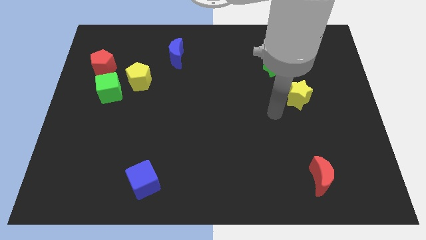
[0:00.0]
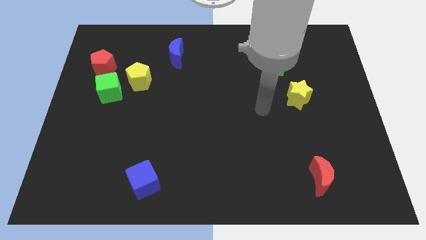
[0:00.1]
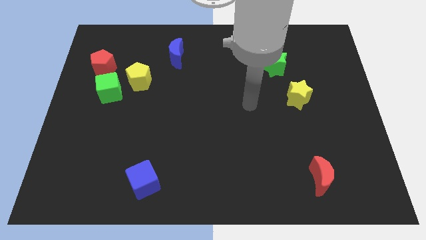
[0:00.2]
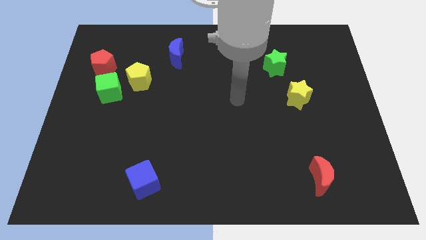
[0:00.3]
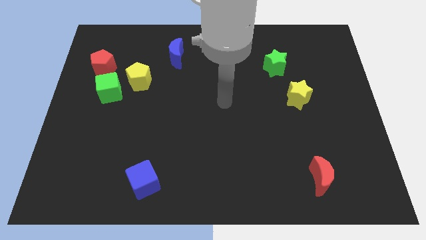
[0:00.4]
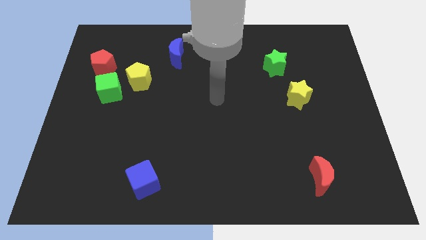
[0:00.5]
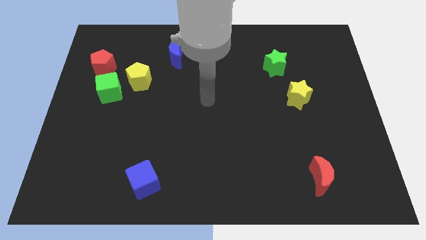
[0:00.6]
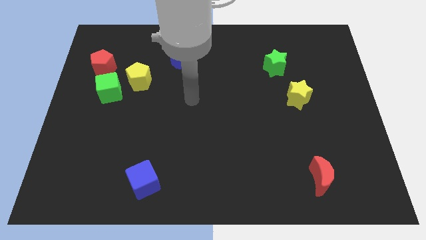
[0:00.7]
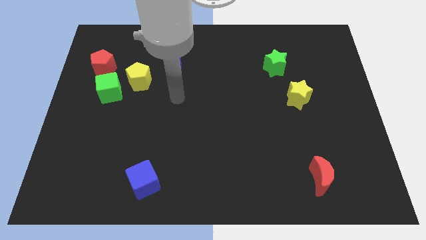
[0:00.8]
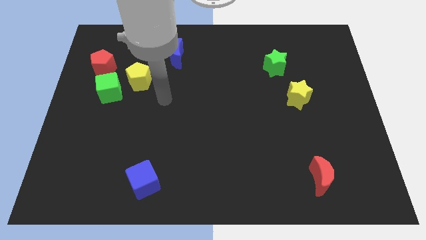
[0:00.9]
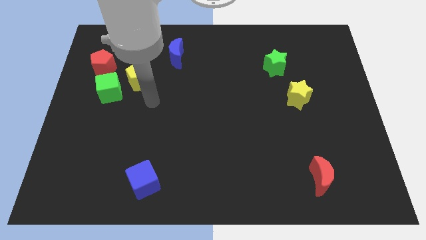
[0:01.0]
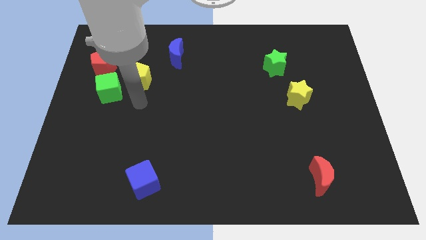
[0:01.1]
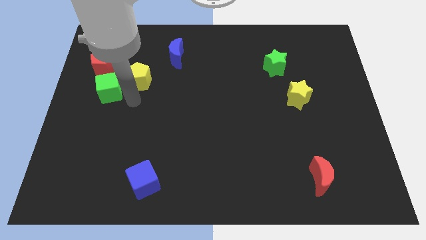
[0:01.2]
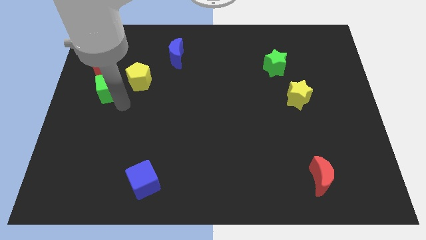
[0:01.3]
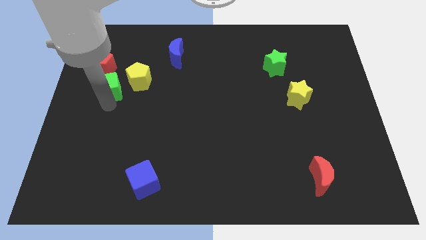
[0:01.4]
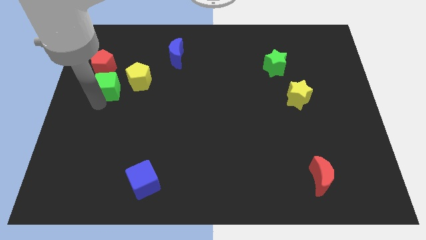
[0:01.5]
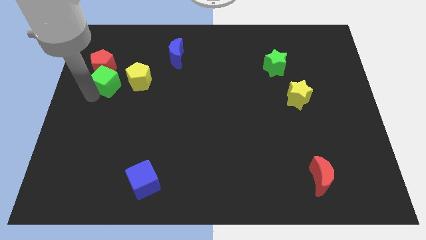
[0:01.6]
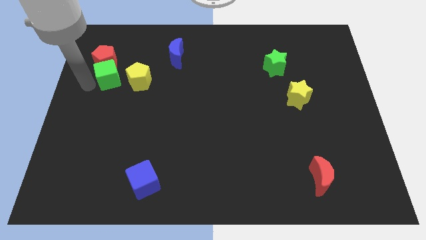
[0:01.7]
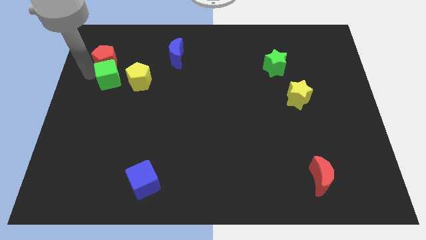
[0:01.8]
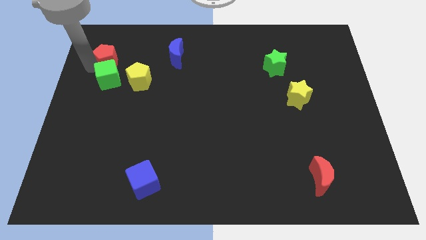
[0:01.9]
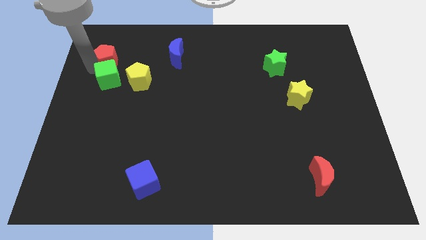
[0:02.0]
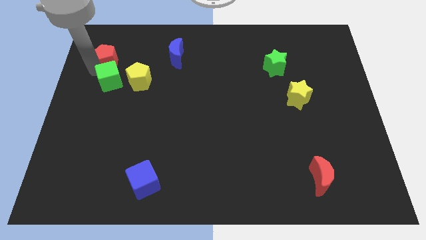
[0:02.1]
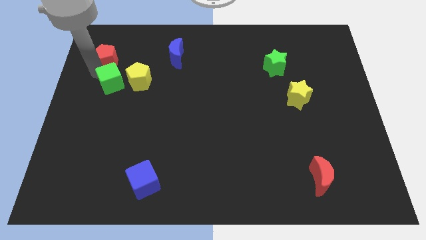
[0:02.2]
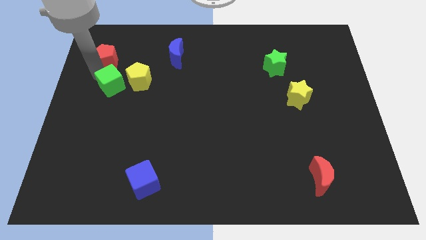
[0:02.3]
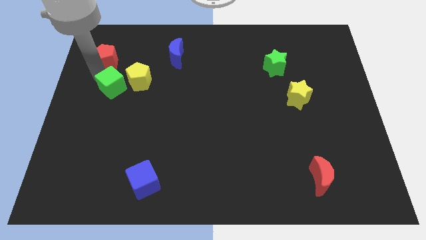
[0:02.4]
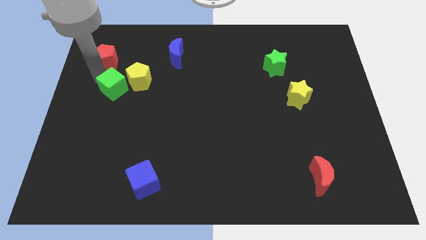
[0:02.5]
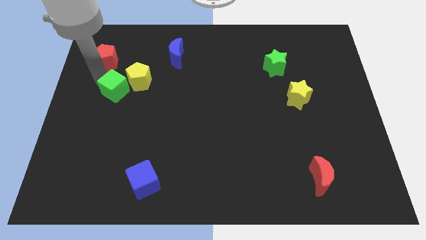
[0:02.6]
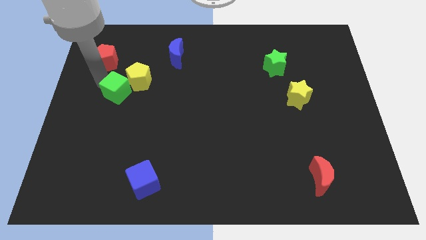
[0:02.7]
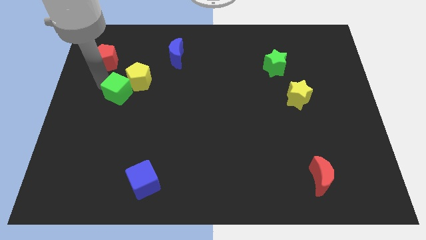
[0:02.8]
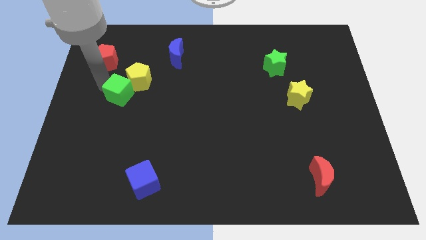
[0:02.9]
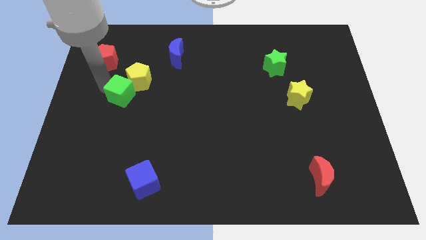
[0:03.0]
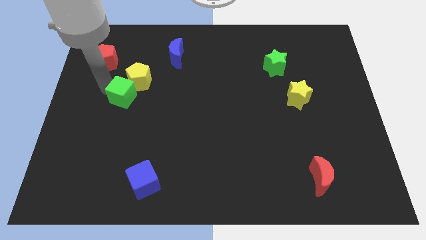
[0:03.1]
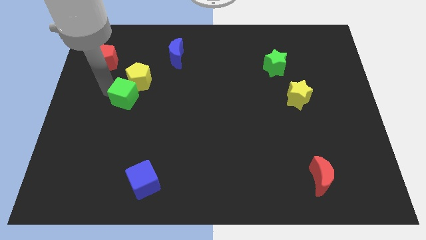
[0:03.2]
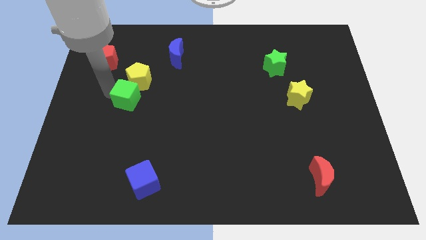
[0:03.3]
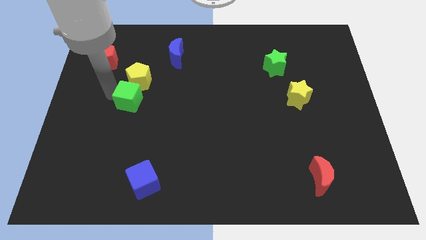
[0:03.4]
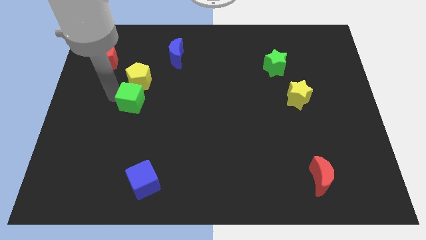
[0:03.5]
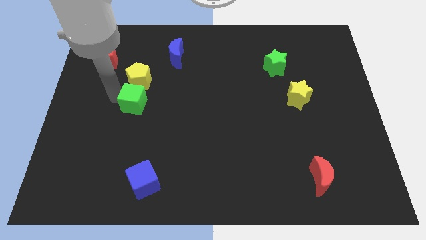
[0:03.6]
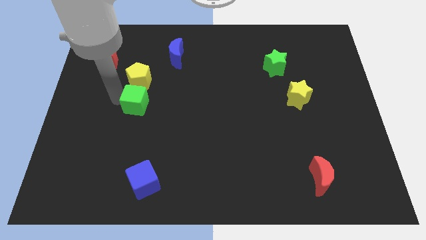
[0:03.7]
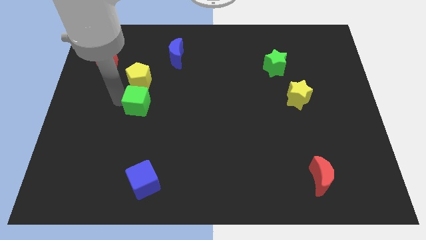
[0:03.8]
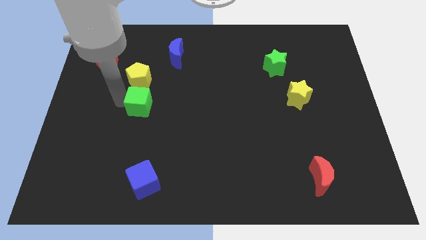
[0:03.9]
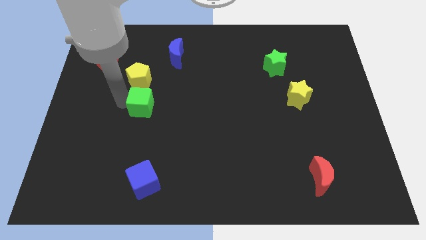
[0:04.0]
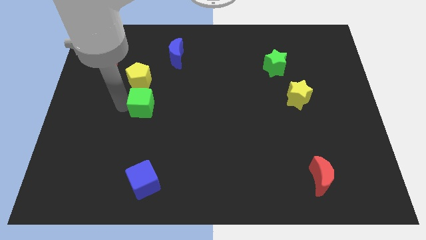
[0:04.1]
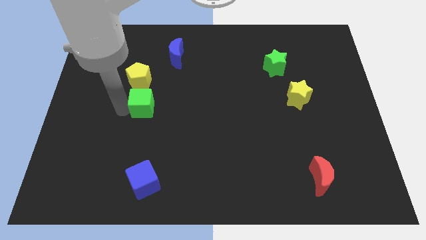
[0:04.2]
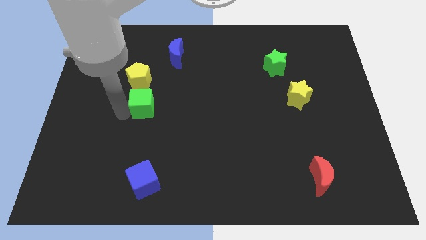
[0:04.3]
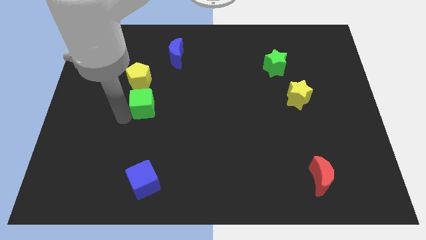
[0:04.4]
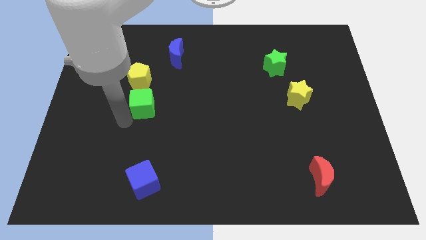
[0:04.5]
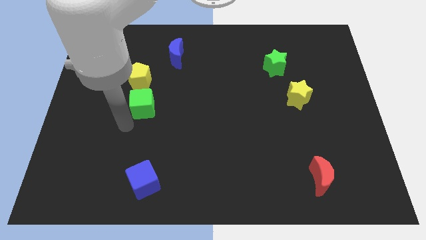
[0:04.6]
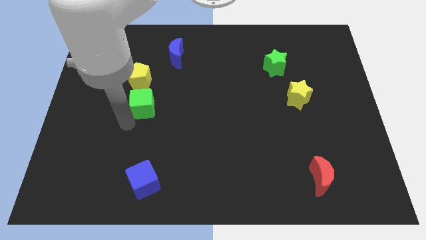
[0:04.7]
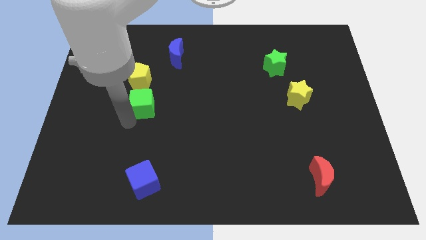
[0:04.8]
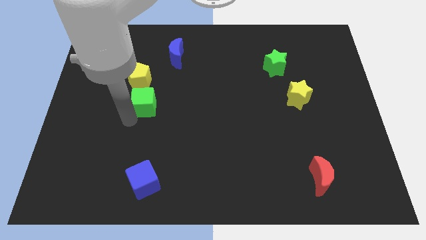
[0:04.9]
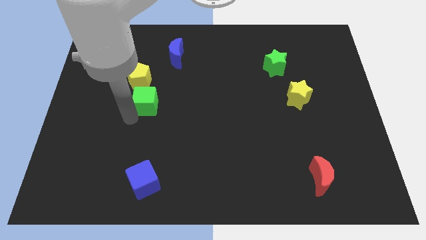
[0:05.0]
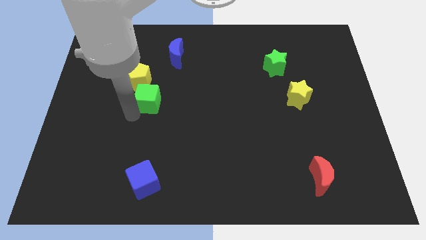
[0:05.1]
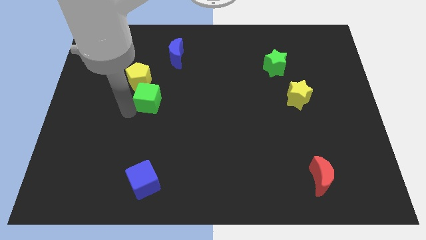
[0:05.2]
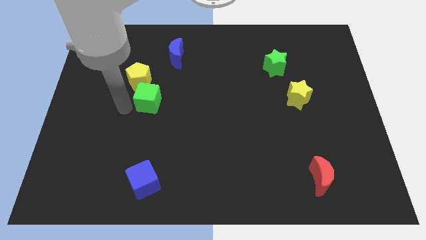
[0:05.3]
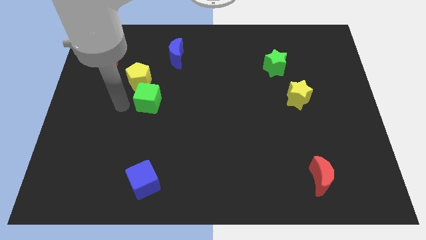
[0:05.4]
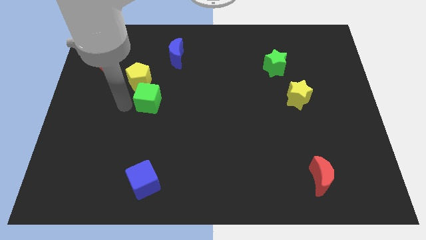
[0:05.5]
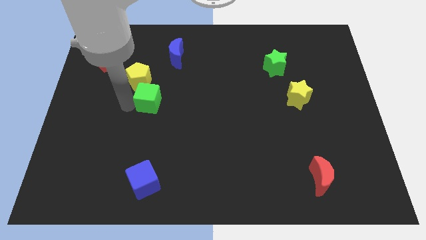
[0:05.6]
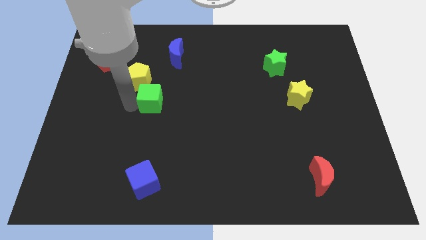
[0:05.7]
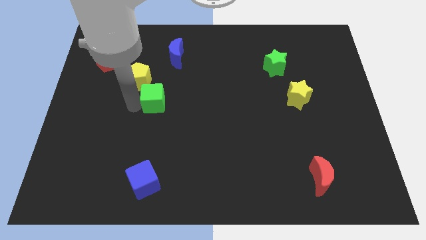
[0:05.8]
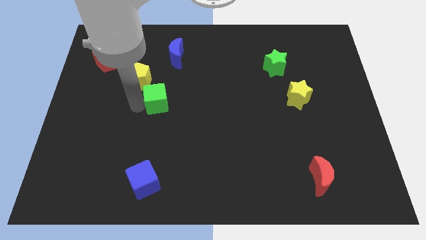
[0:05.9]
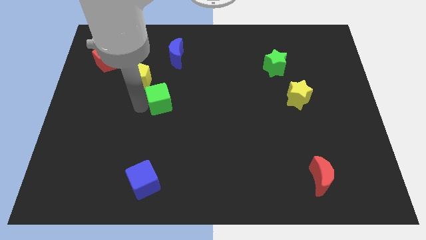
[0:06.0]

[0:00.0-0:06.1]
move the green cube to the middle

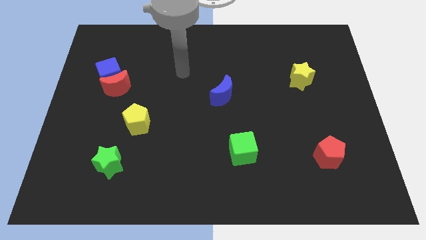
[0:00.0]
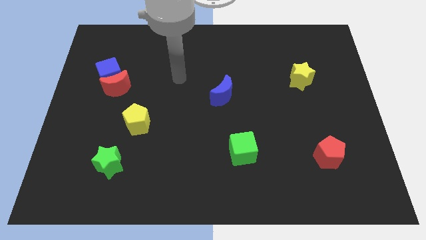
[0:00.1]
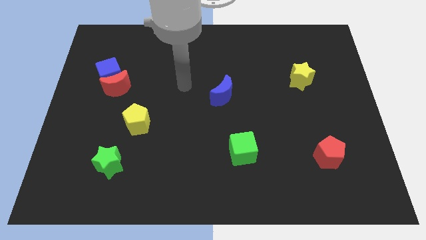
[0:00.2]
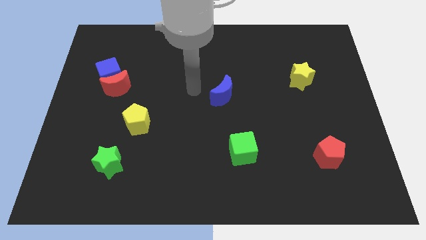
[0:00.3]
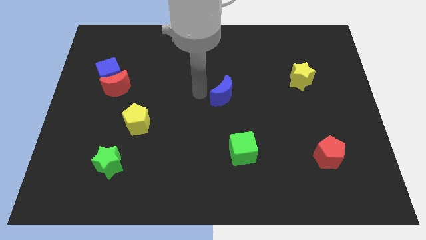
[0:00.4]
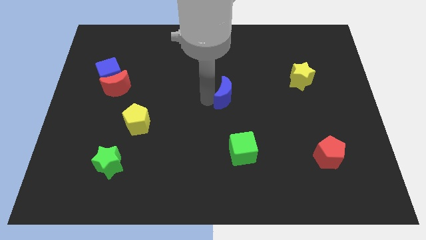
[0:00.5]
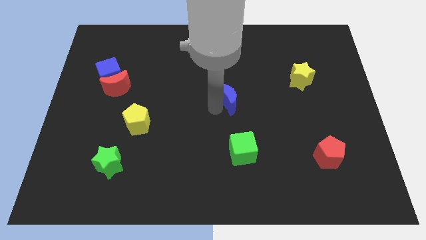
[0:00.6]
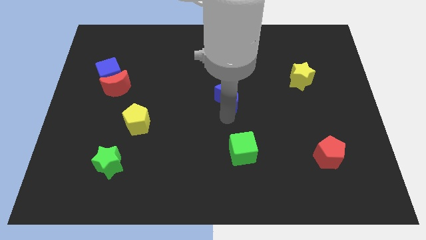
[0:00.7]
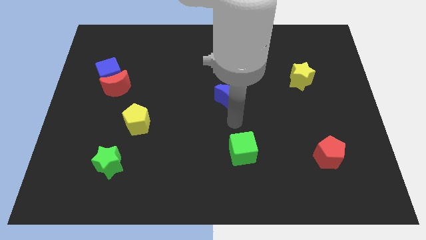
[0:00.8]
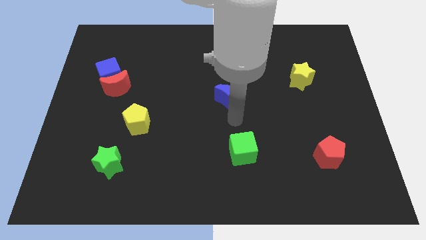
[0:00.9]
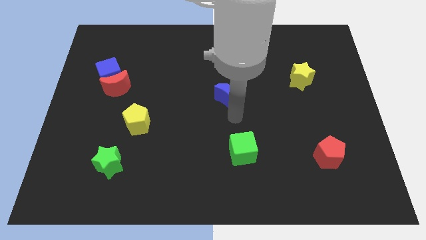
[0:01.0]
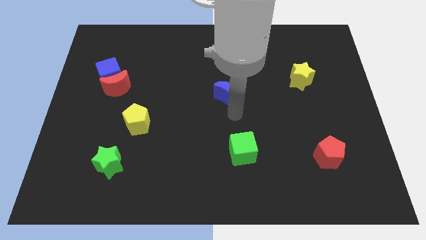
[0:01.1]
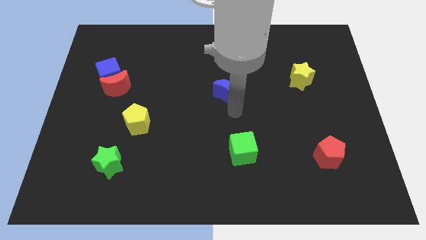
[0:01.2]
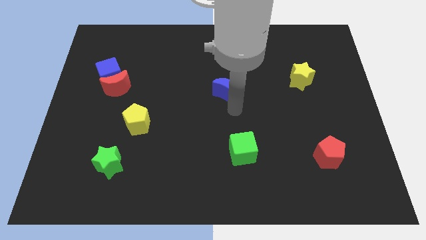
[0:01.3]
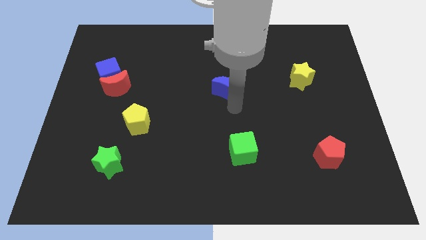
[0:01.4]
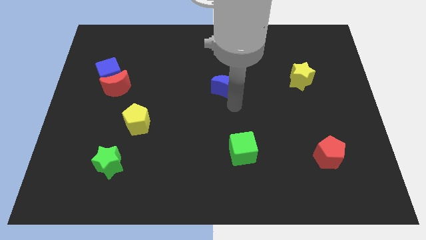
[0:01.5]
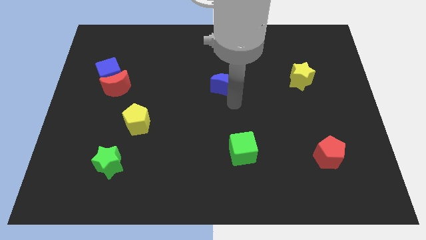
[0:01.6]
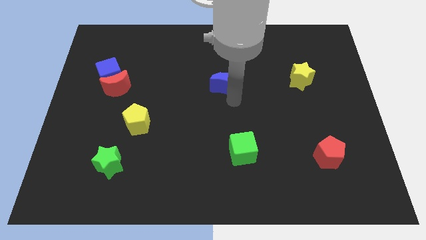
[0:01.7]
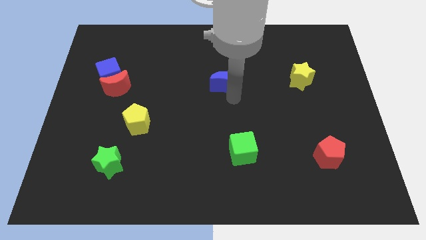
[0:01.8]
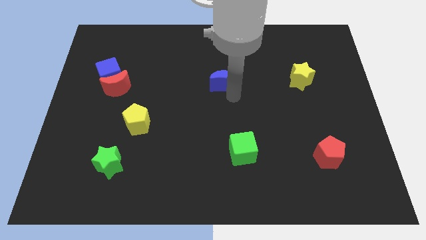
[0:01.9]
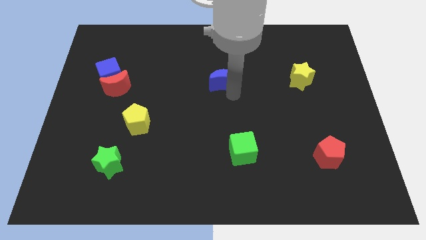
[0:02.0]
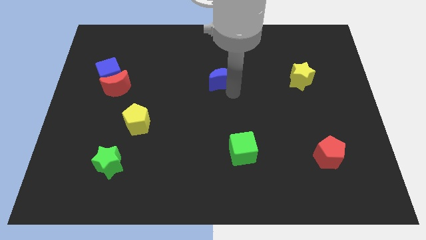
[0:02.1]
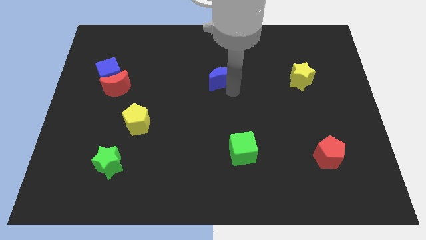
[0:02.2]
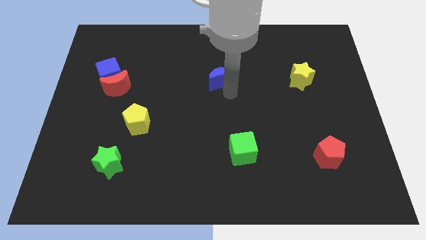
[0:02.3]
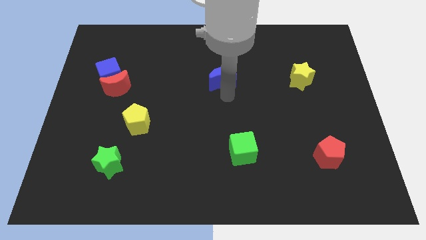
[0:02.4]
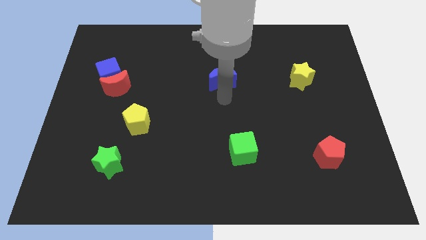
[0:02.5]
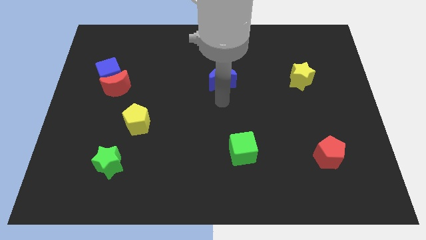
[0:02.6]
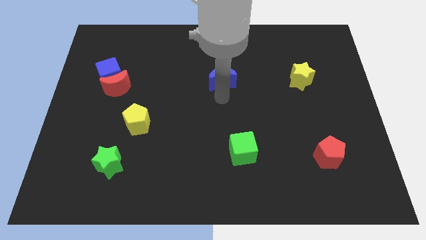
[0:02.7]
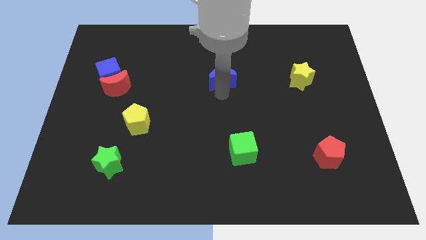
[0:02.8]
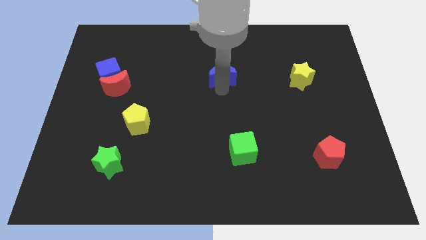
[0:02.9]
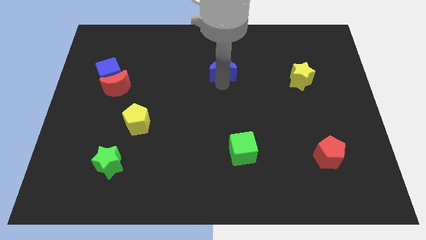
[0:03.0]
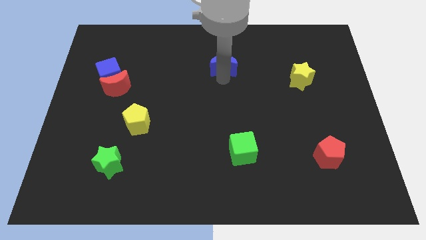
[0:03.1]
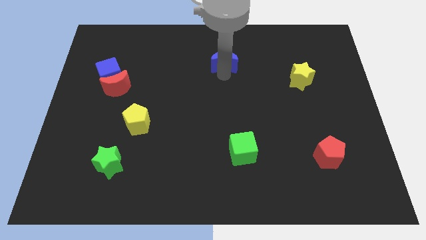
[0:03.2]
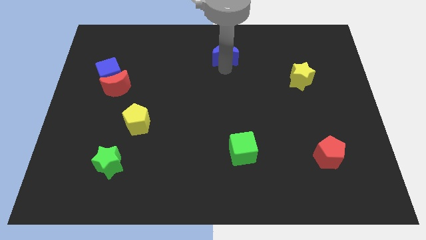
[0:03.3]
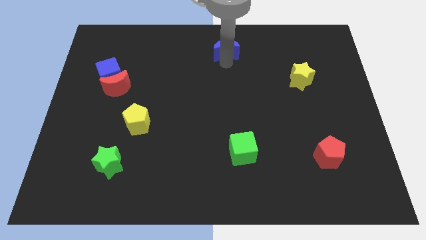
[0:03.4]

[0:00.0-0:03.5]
put the blue moon to the top side
